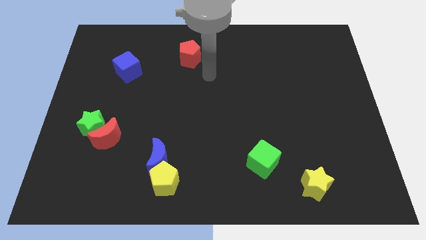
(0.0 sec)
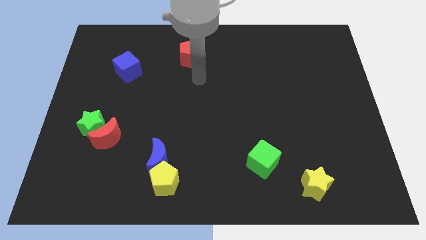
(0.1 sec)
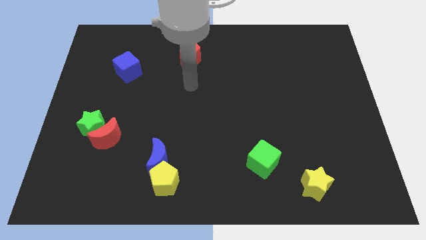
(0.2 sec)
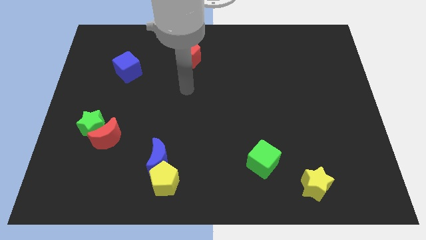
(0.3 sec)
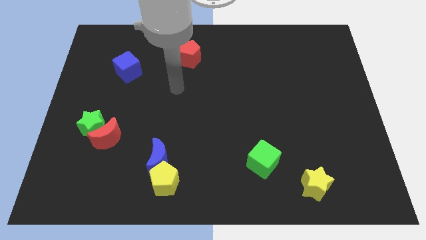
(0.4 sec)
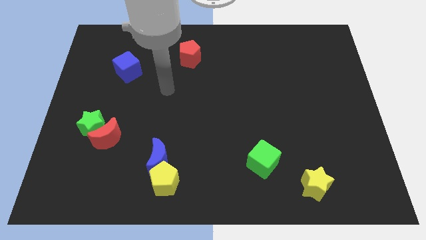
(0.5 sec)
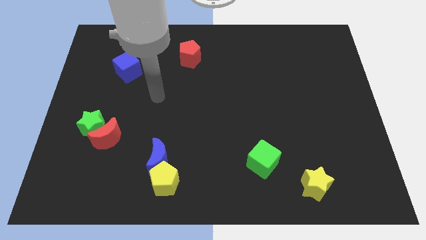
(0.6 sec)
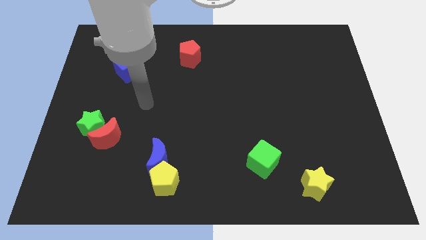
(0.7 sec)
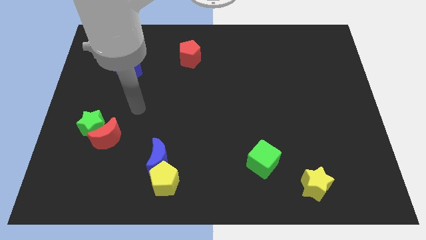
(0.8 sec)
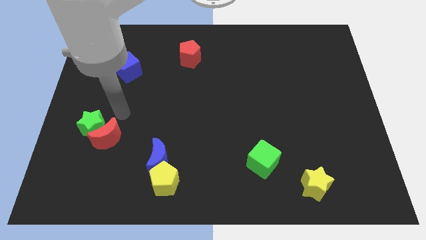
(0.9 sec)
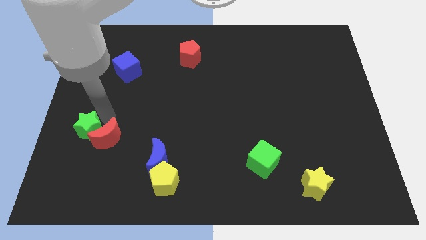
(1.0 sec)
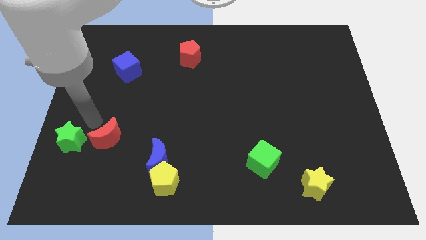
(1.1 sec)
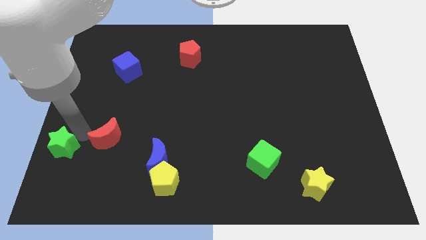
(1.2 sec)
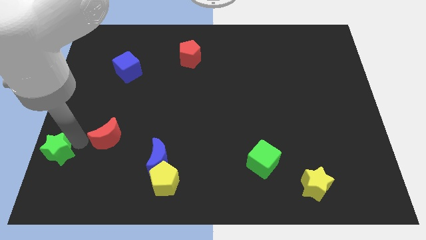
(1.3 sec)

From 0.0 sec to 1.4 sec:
pull the red moon apart from the green star

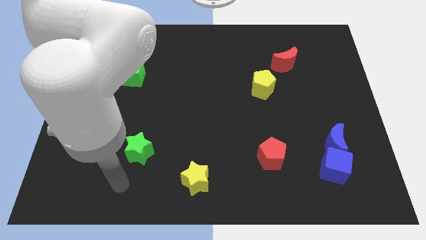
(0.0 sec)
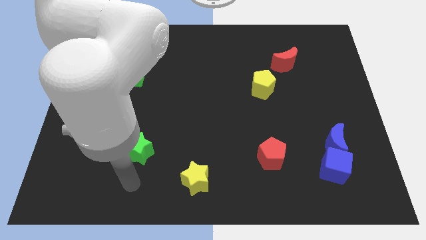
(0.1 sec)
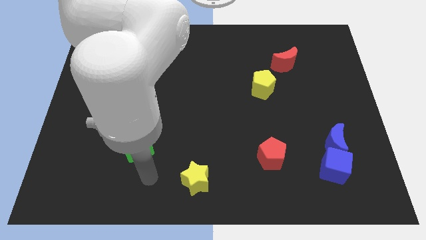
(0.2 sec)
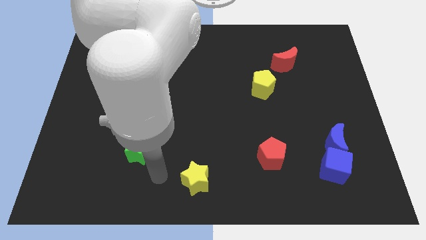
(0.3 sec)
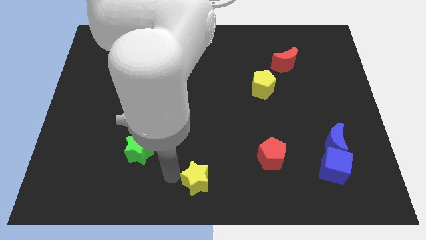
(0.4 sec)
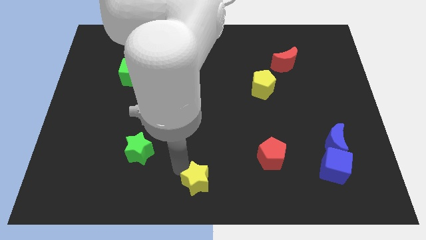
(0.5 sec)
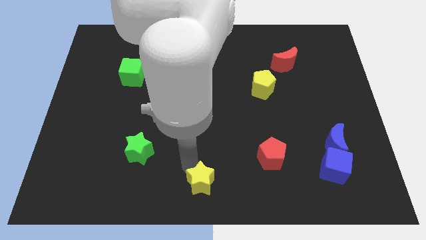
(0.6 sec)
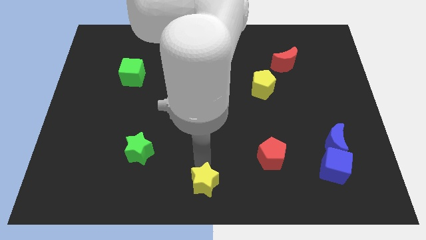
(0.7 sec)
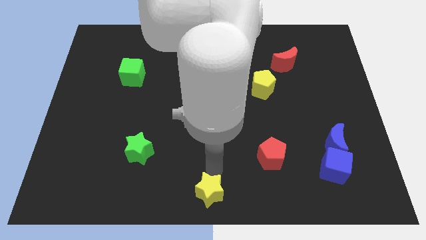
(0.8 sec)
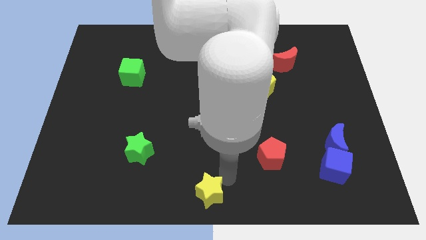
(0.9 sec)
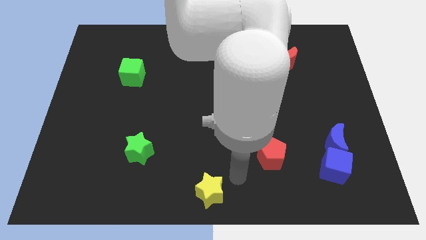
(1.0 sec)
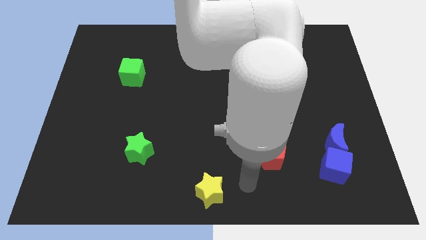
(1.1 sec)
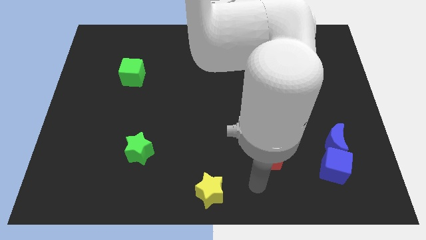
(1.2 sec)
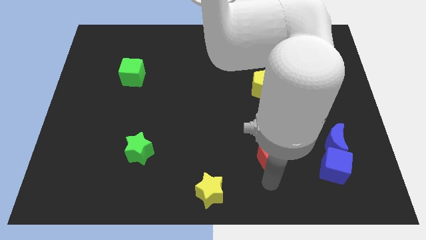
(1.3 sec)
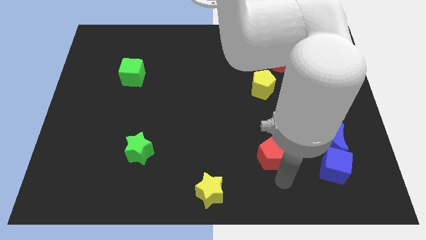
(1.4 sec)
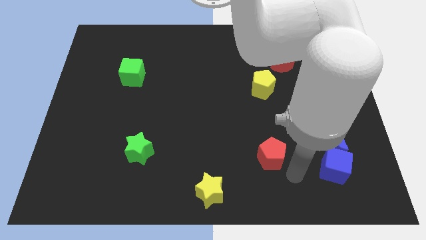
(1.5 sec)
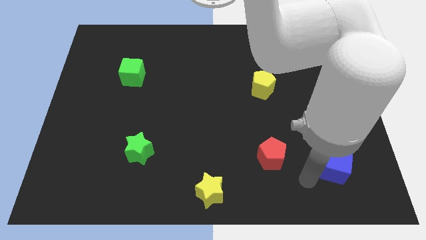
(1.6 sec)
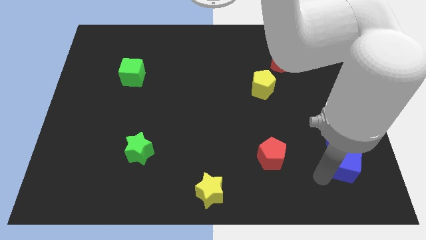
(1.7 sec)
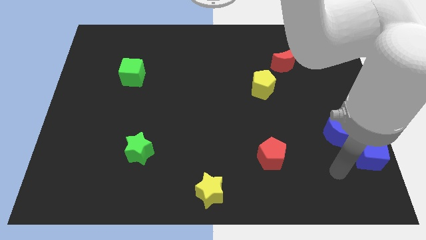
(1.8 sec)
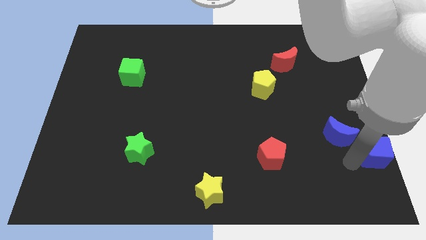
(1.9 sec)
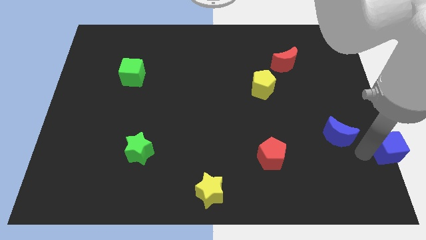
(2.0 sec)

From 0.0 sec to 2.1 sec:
pull the blue moon apart from the blue cube

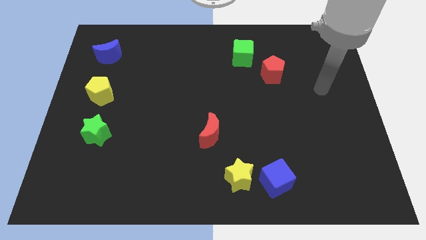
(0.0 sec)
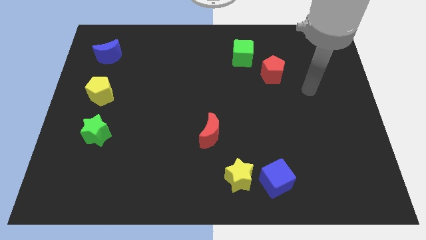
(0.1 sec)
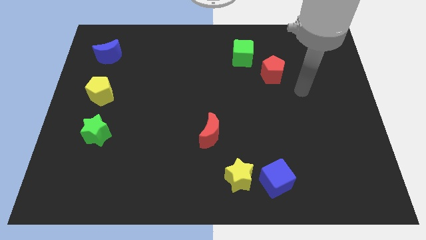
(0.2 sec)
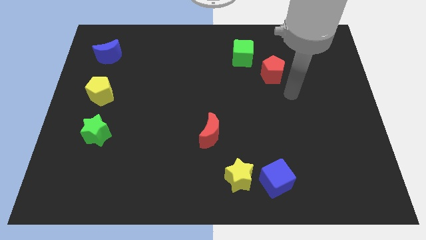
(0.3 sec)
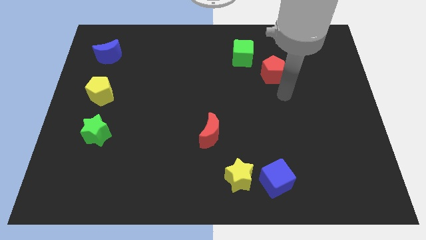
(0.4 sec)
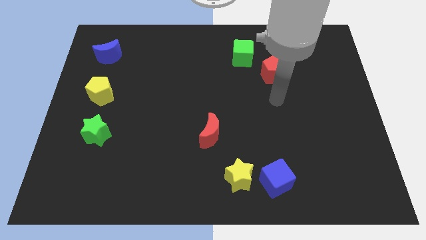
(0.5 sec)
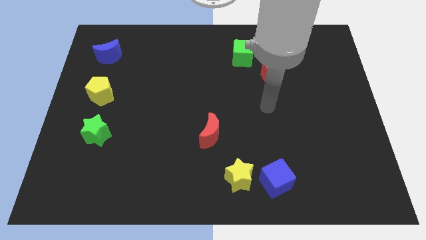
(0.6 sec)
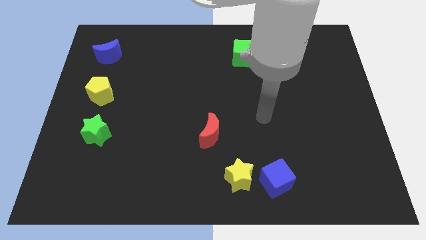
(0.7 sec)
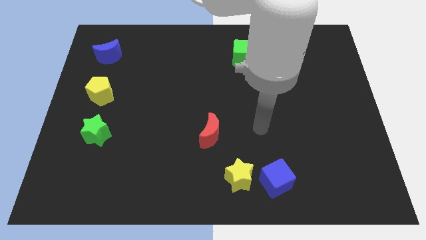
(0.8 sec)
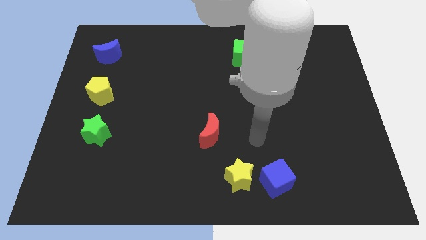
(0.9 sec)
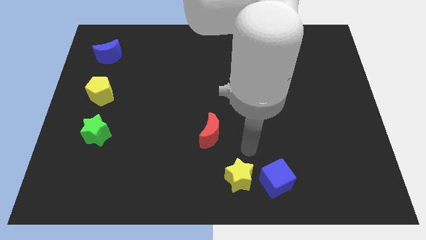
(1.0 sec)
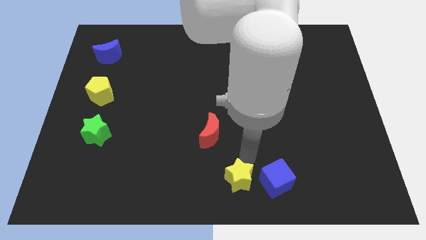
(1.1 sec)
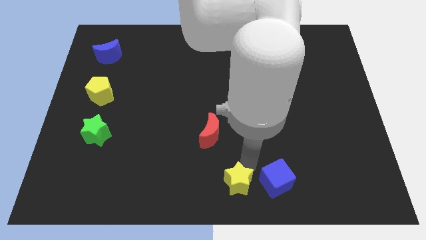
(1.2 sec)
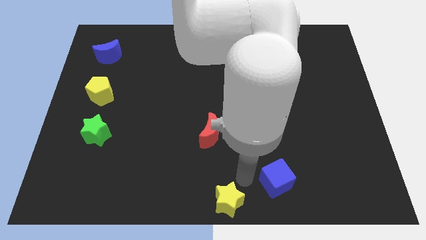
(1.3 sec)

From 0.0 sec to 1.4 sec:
pull the blue cube apart from the yellow star

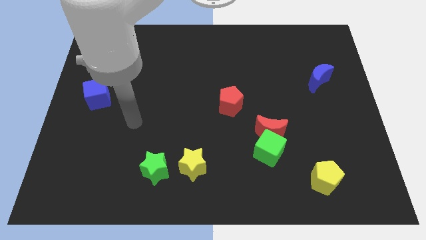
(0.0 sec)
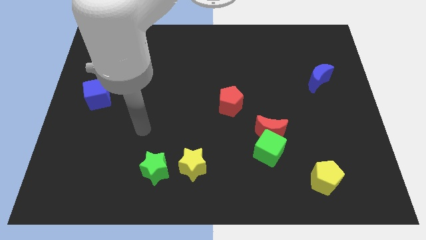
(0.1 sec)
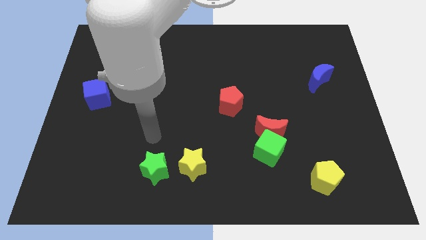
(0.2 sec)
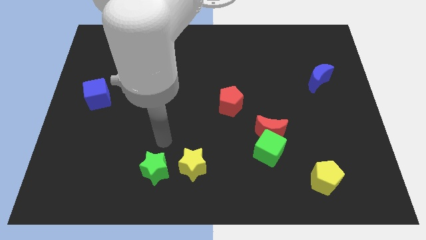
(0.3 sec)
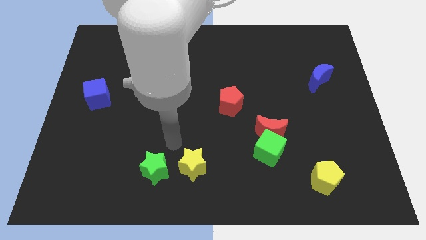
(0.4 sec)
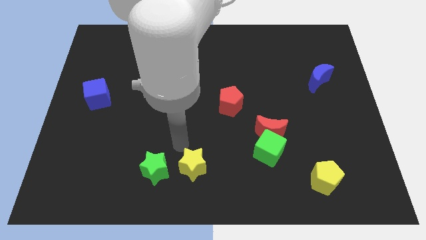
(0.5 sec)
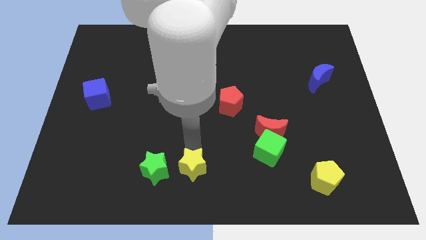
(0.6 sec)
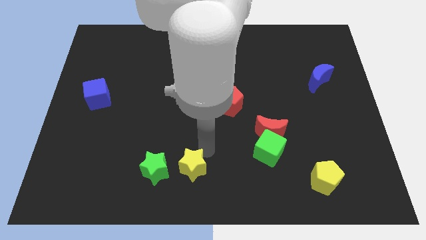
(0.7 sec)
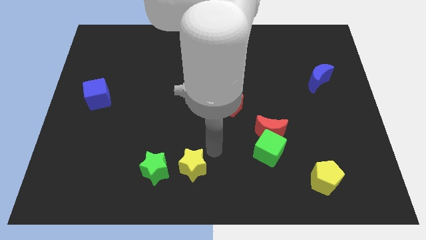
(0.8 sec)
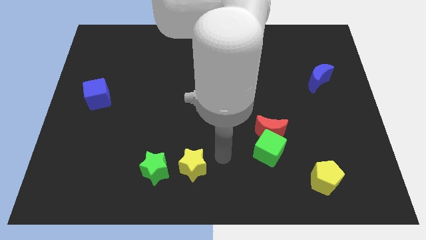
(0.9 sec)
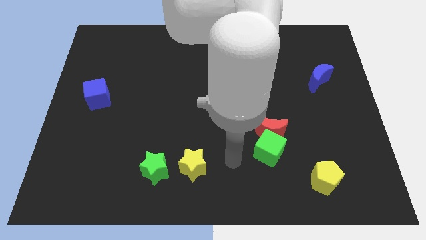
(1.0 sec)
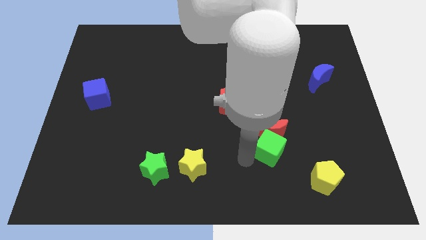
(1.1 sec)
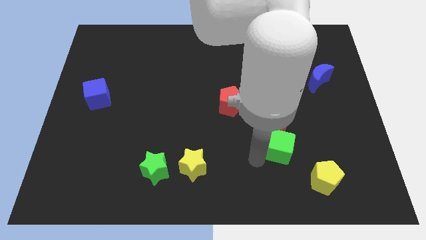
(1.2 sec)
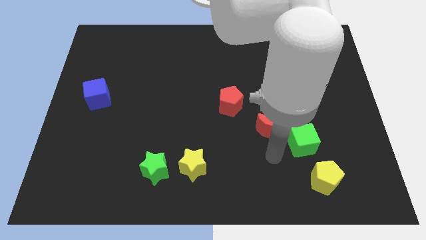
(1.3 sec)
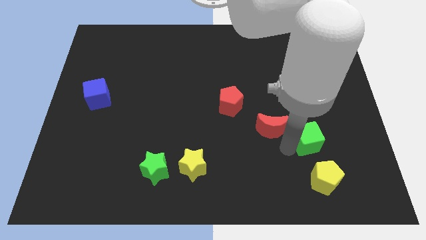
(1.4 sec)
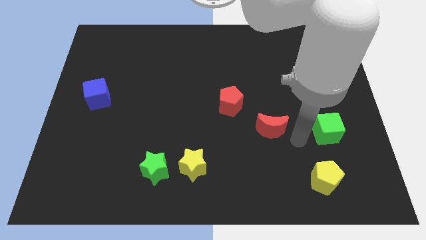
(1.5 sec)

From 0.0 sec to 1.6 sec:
move the red moon away from the green cube

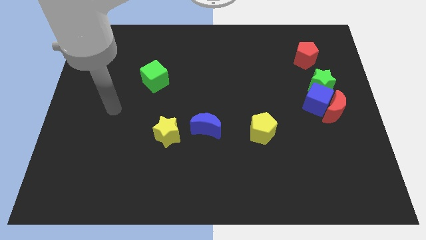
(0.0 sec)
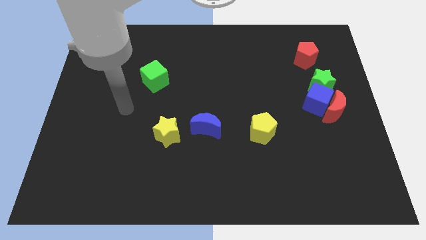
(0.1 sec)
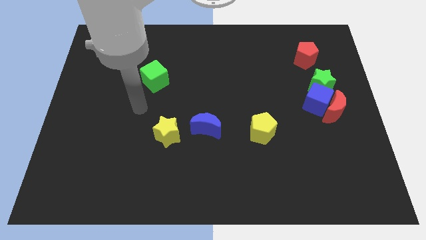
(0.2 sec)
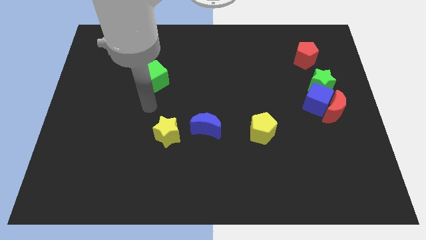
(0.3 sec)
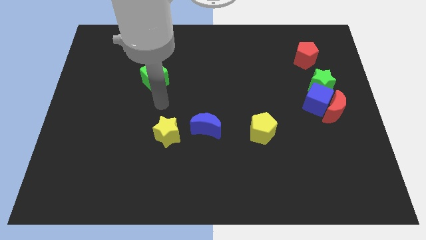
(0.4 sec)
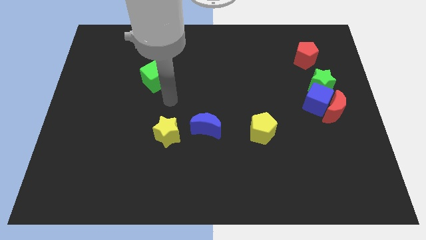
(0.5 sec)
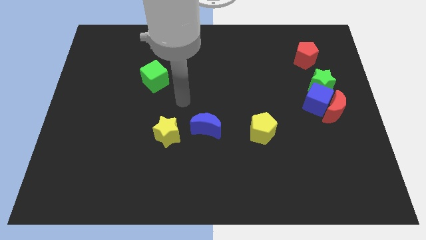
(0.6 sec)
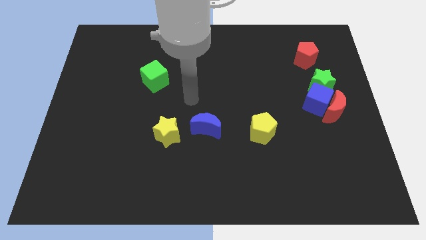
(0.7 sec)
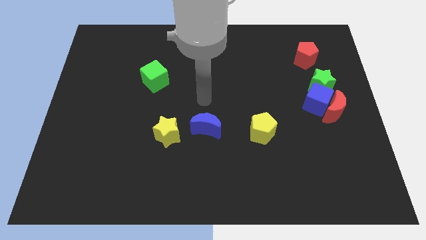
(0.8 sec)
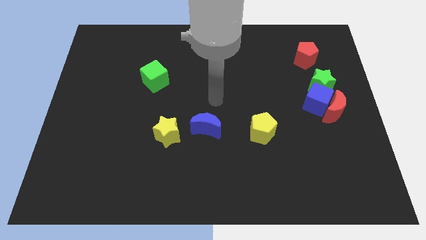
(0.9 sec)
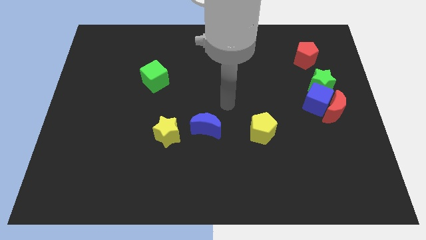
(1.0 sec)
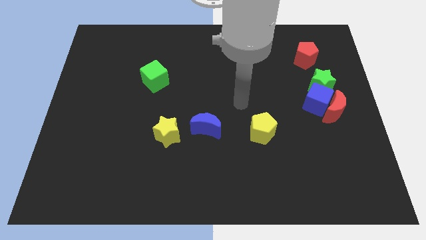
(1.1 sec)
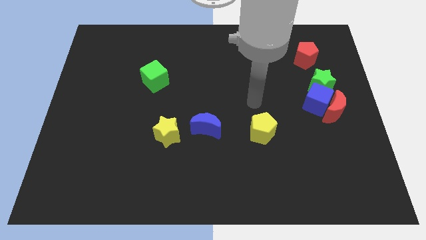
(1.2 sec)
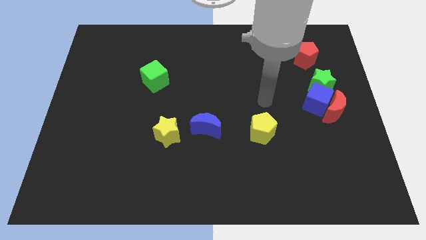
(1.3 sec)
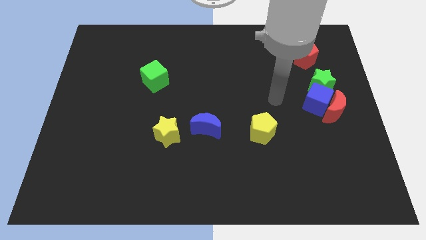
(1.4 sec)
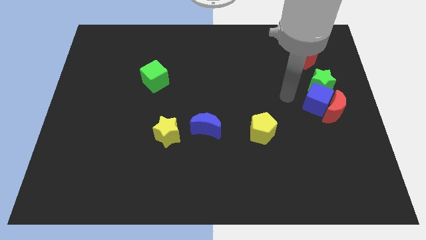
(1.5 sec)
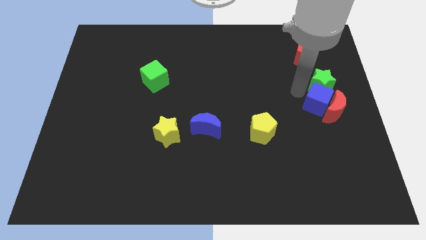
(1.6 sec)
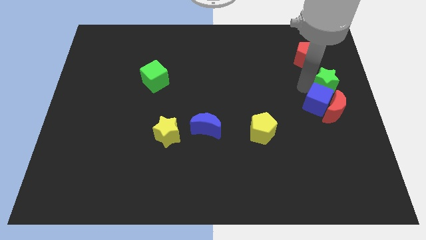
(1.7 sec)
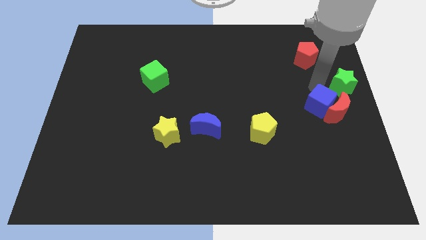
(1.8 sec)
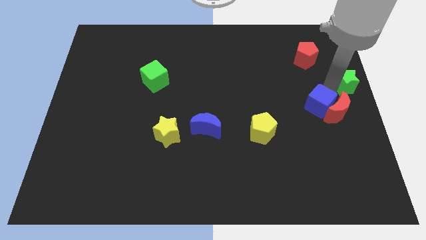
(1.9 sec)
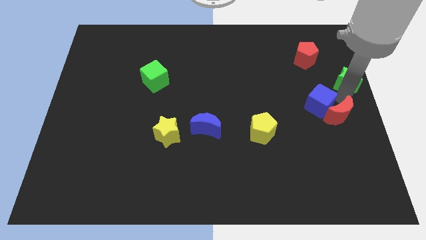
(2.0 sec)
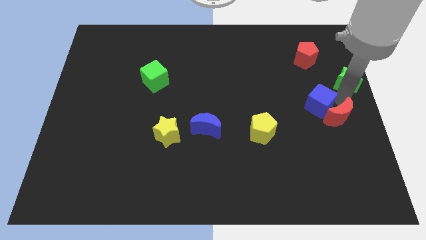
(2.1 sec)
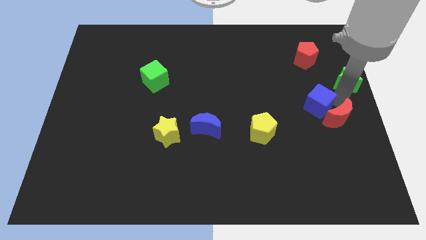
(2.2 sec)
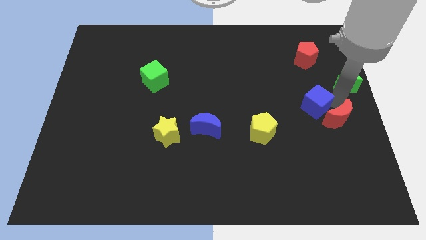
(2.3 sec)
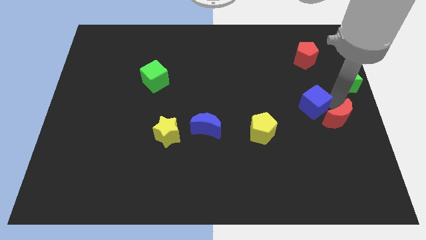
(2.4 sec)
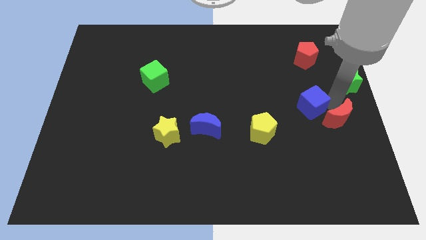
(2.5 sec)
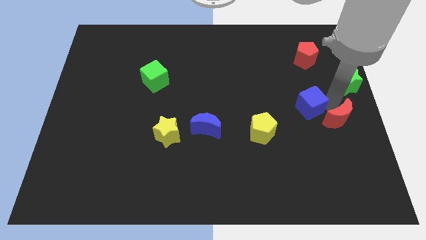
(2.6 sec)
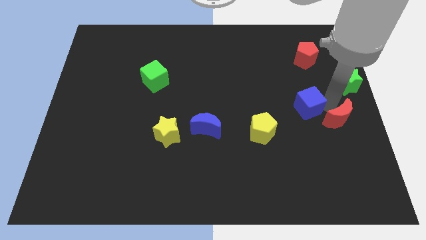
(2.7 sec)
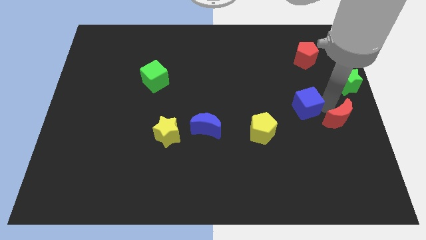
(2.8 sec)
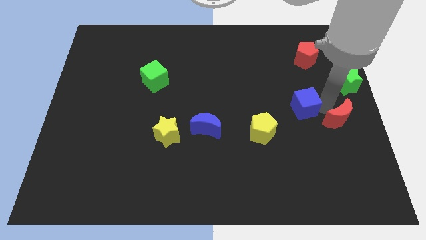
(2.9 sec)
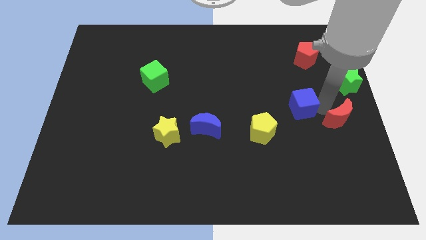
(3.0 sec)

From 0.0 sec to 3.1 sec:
move the blue cube away from the red moon and green star
